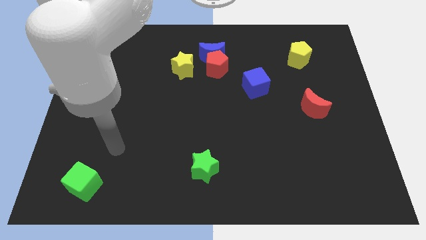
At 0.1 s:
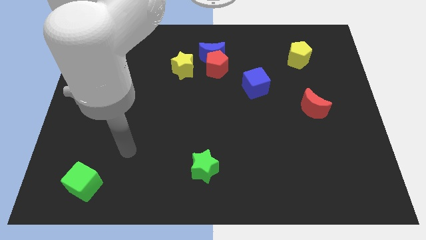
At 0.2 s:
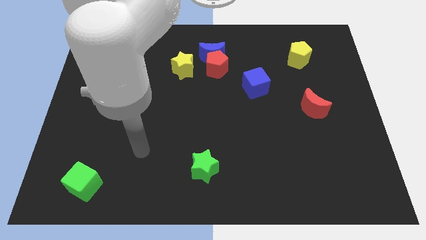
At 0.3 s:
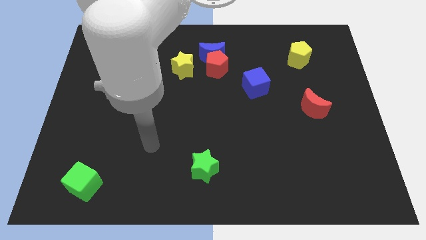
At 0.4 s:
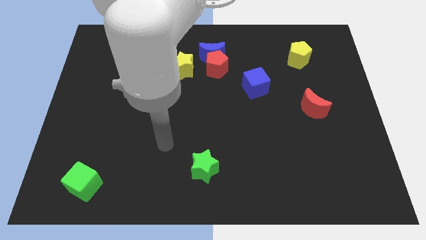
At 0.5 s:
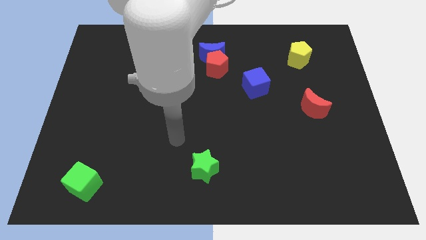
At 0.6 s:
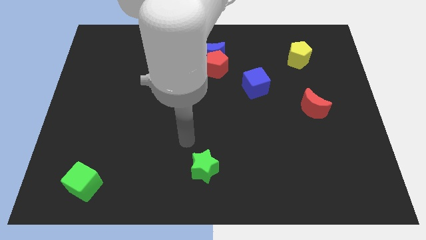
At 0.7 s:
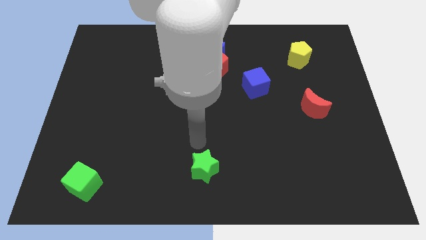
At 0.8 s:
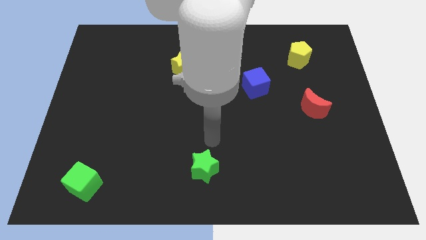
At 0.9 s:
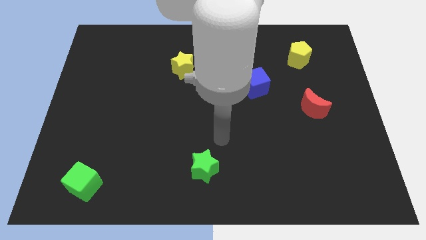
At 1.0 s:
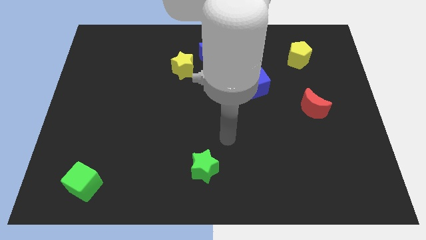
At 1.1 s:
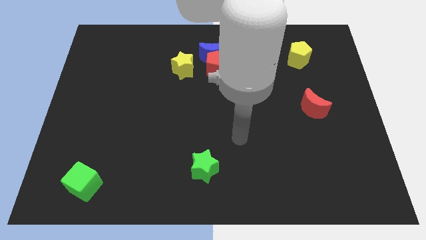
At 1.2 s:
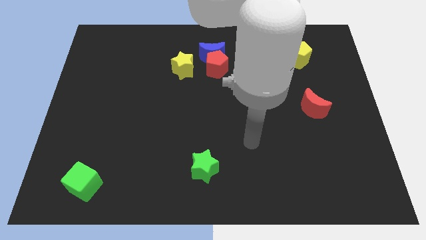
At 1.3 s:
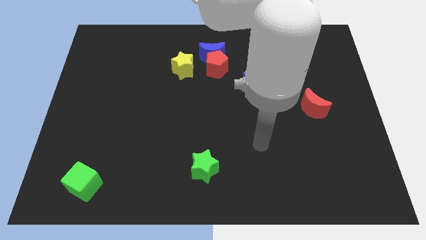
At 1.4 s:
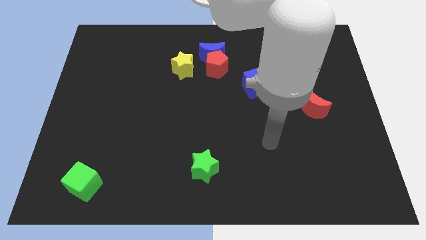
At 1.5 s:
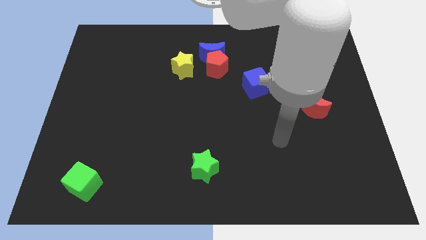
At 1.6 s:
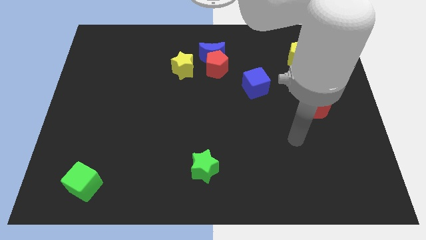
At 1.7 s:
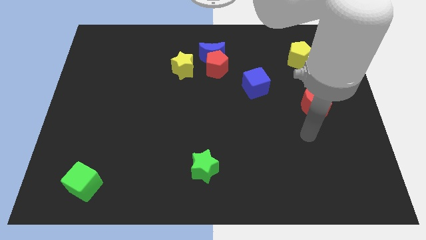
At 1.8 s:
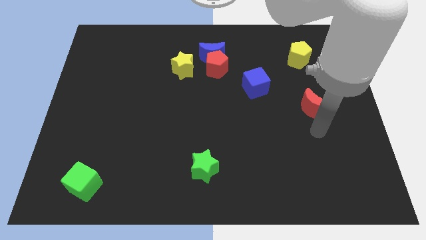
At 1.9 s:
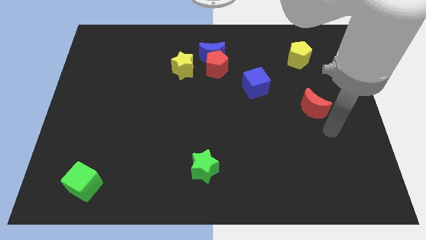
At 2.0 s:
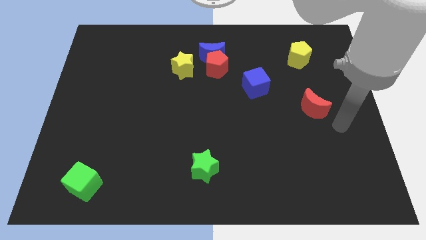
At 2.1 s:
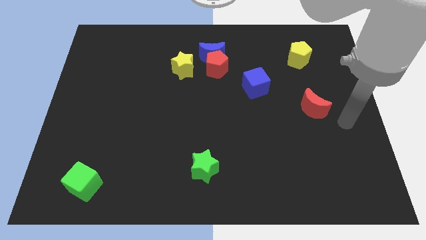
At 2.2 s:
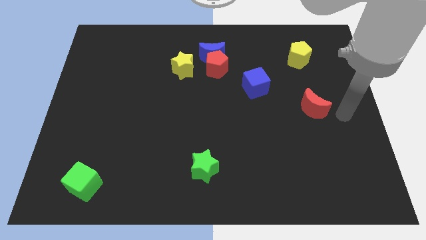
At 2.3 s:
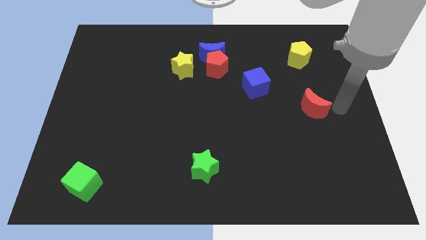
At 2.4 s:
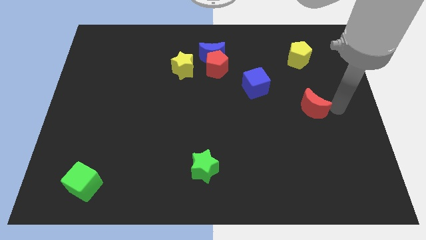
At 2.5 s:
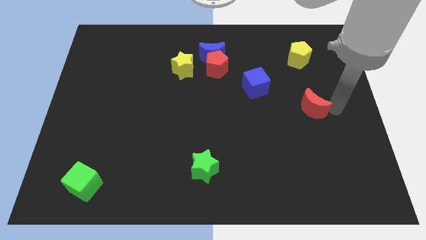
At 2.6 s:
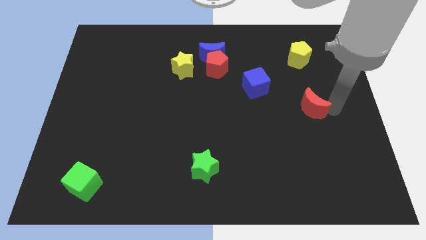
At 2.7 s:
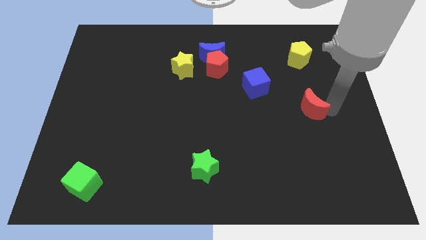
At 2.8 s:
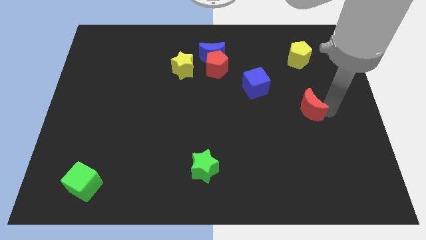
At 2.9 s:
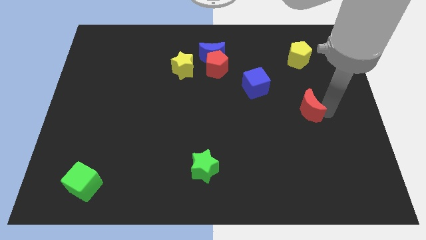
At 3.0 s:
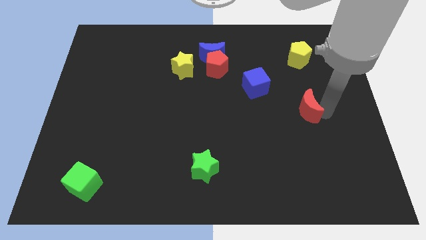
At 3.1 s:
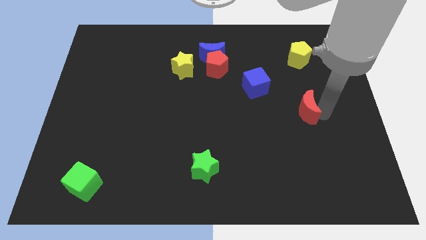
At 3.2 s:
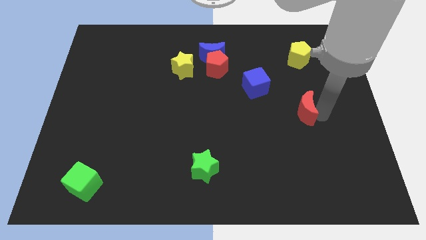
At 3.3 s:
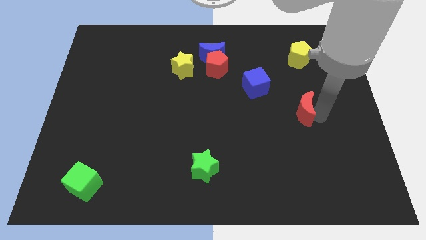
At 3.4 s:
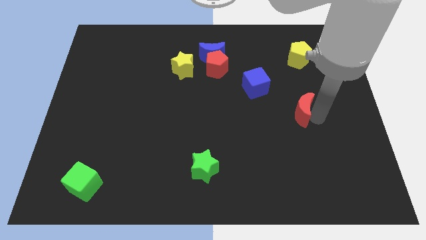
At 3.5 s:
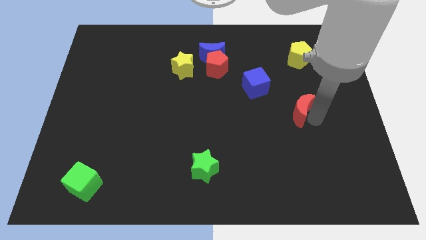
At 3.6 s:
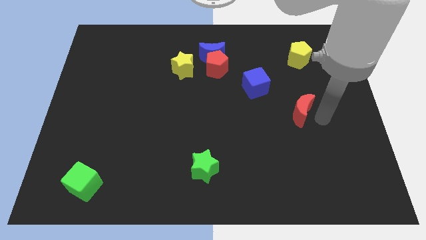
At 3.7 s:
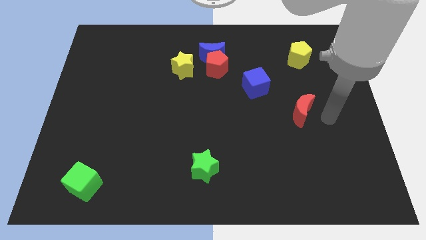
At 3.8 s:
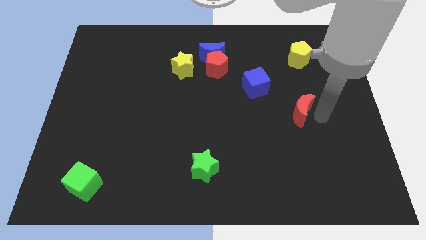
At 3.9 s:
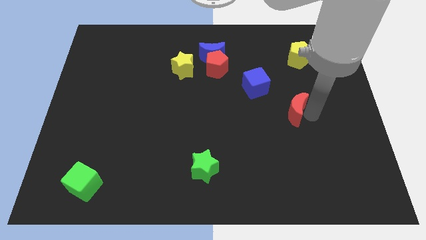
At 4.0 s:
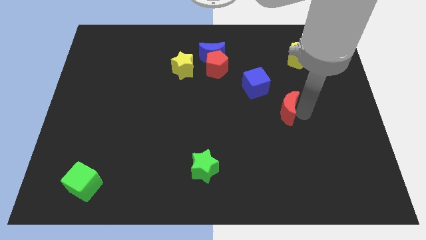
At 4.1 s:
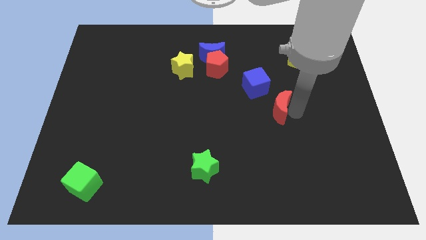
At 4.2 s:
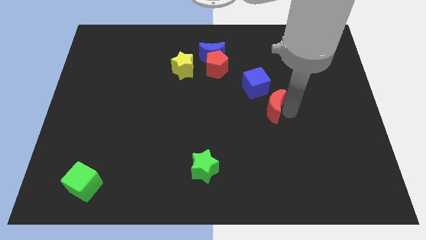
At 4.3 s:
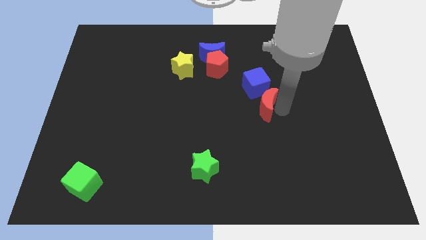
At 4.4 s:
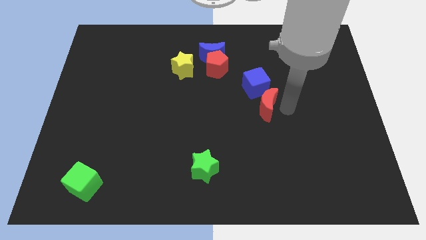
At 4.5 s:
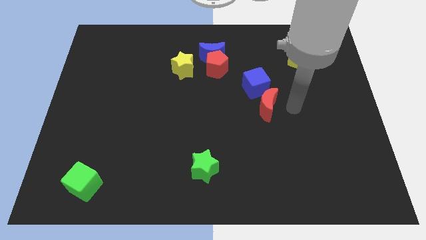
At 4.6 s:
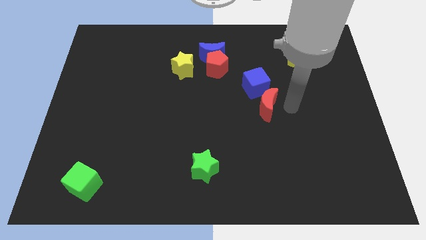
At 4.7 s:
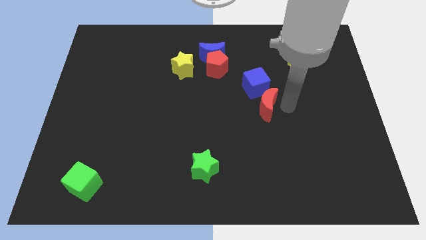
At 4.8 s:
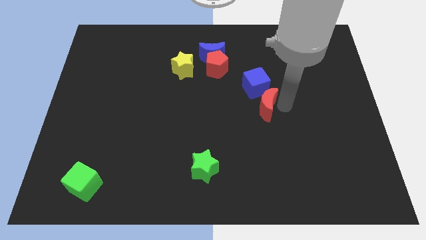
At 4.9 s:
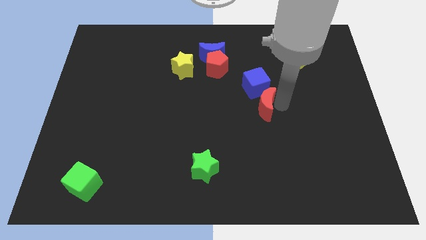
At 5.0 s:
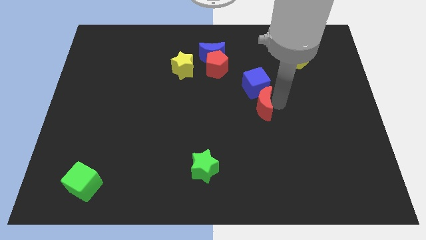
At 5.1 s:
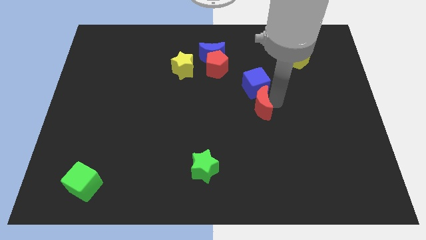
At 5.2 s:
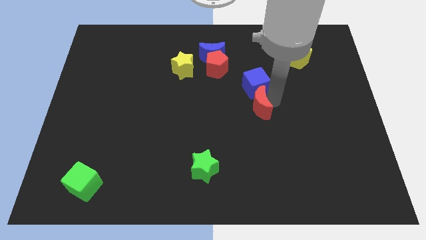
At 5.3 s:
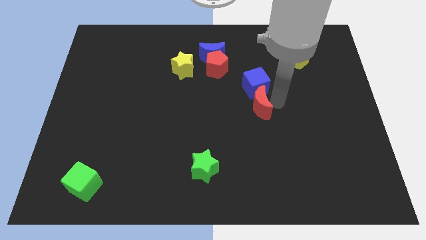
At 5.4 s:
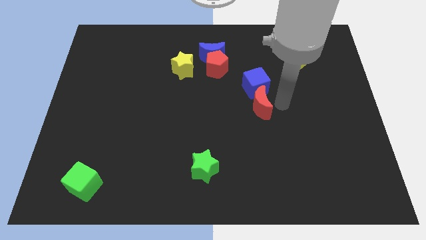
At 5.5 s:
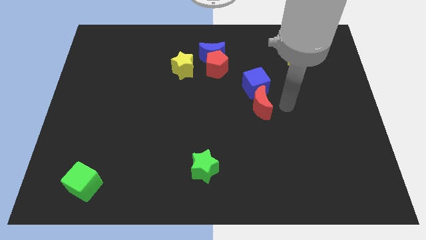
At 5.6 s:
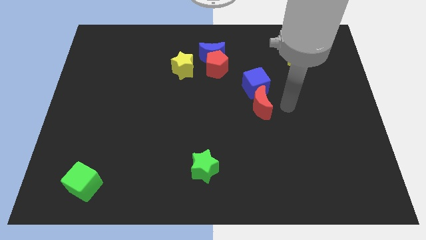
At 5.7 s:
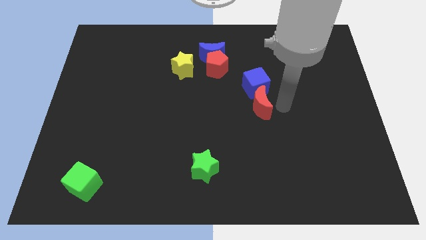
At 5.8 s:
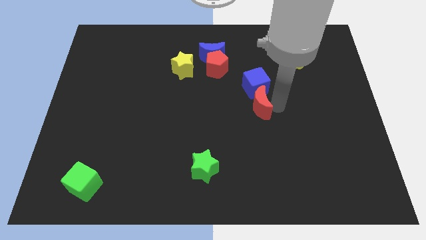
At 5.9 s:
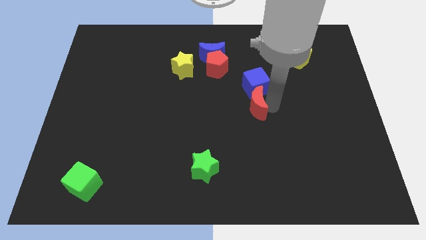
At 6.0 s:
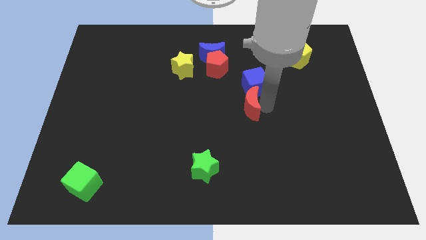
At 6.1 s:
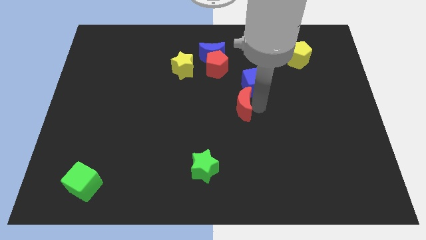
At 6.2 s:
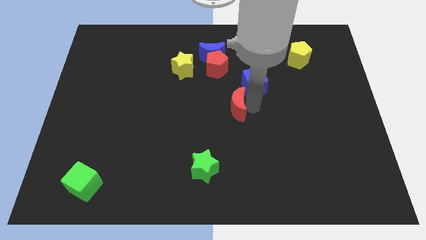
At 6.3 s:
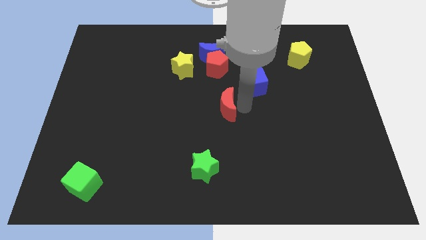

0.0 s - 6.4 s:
move the red moon left

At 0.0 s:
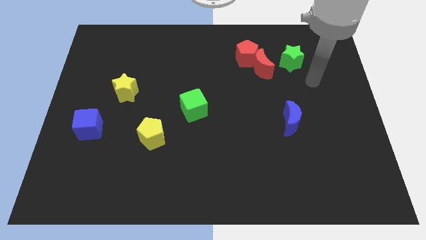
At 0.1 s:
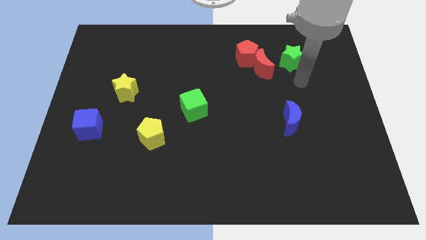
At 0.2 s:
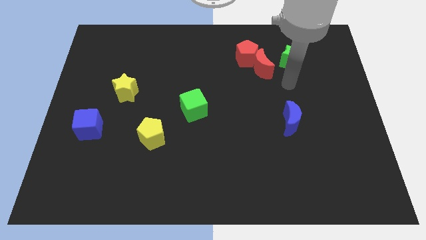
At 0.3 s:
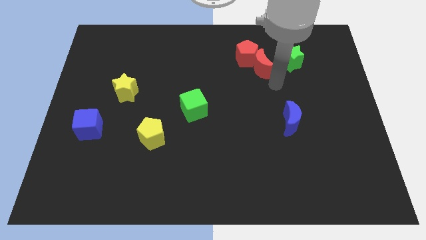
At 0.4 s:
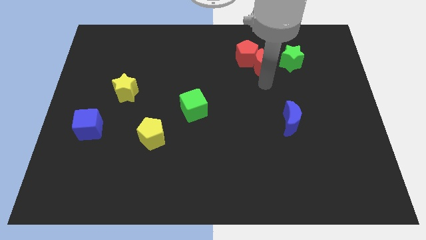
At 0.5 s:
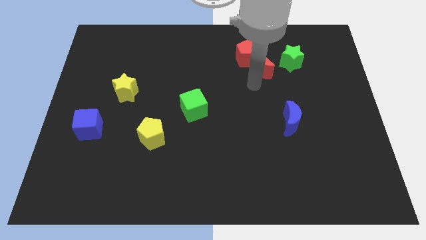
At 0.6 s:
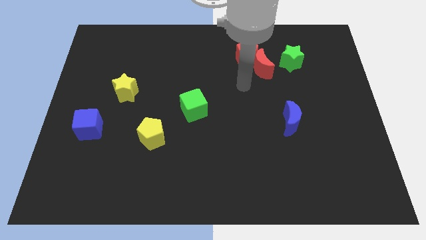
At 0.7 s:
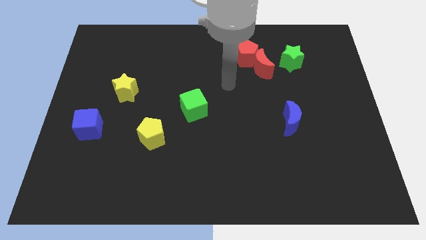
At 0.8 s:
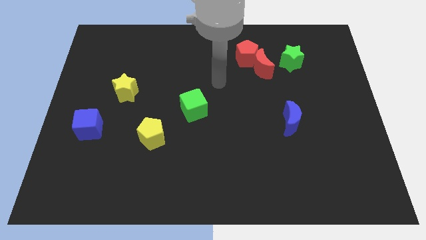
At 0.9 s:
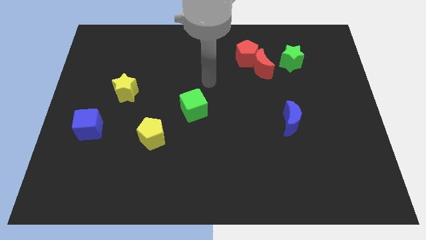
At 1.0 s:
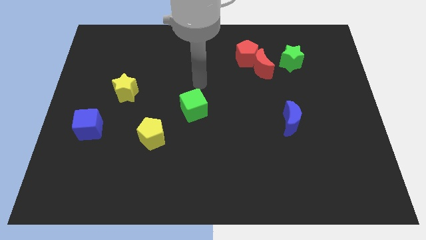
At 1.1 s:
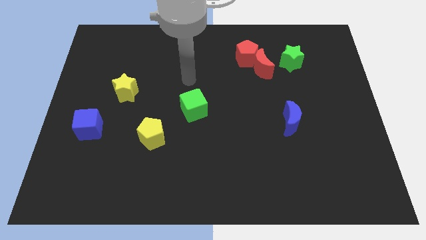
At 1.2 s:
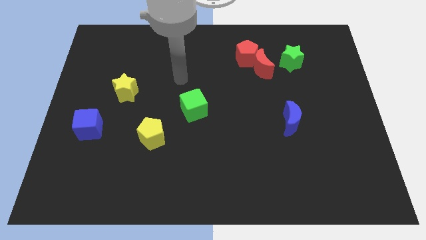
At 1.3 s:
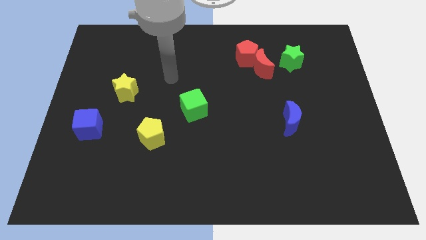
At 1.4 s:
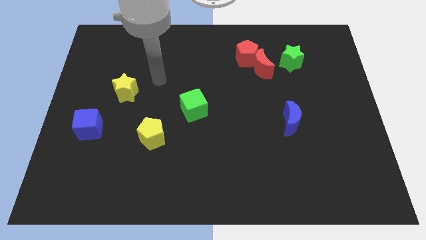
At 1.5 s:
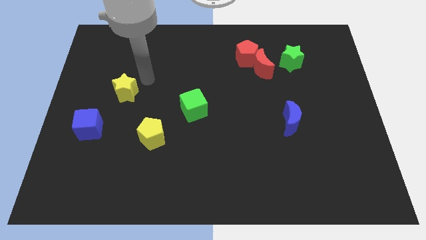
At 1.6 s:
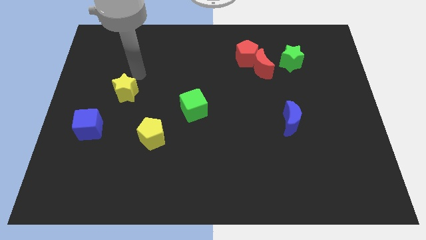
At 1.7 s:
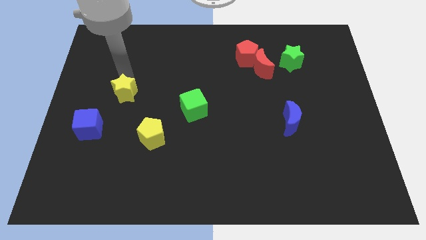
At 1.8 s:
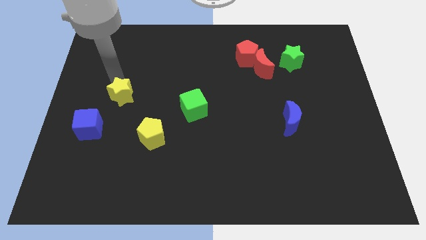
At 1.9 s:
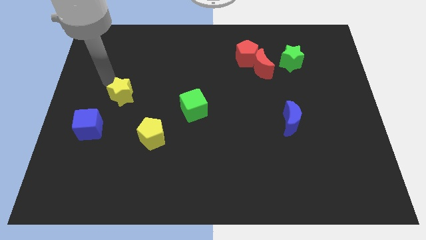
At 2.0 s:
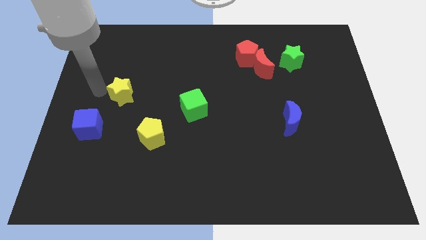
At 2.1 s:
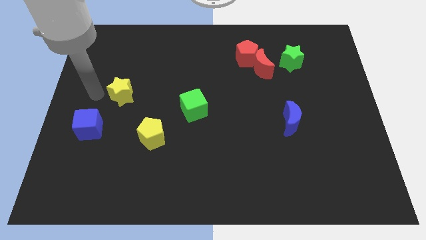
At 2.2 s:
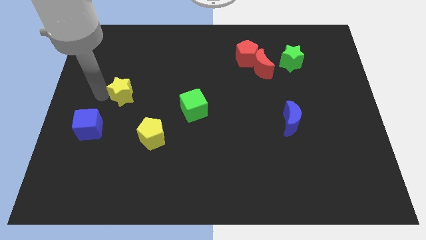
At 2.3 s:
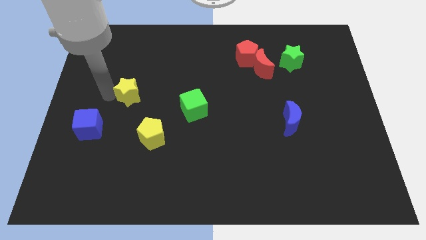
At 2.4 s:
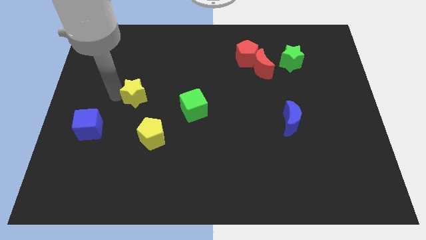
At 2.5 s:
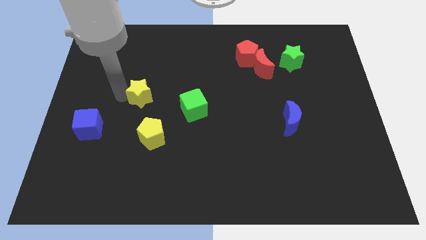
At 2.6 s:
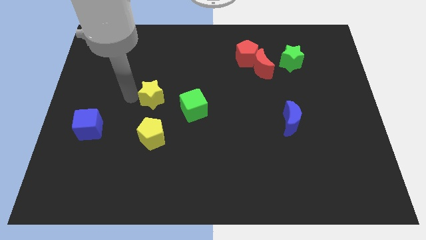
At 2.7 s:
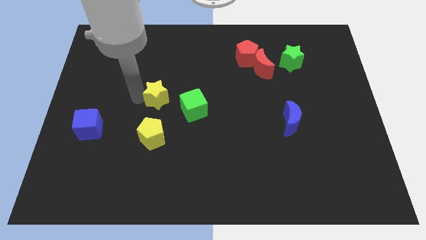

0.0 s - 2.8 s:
slightly push the yellow star right
